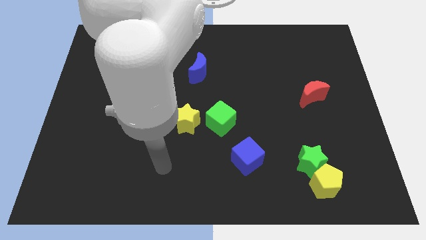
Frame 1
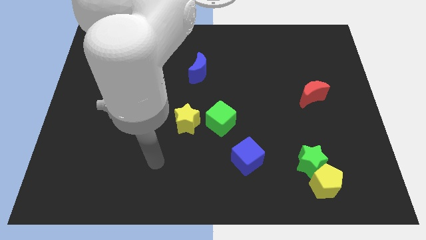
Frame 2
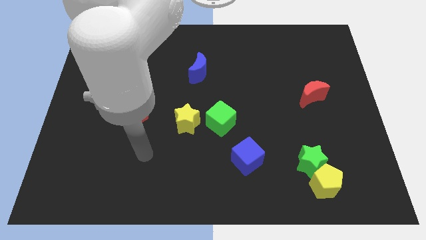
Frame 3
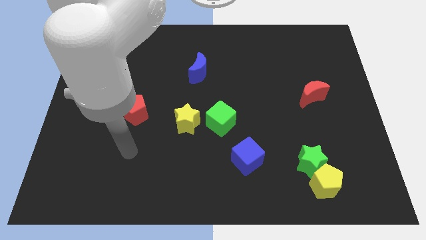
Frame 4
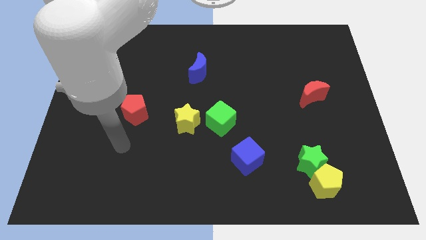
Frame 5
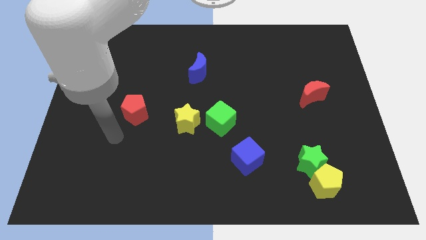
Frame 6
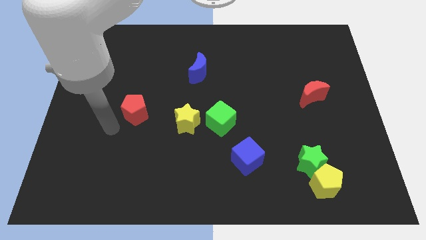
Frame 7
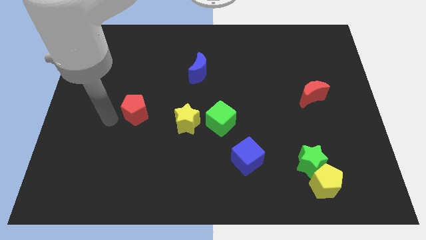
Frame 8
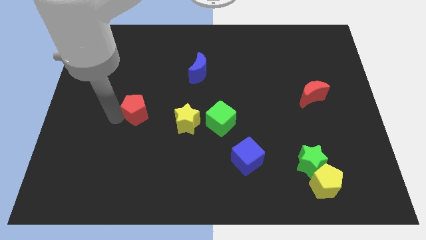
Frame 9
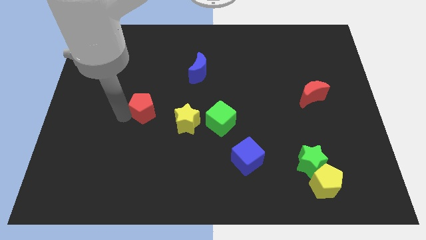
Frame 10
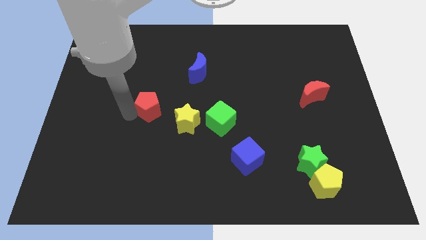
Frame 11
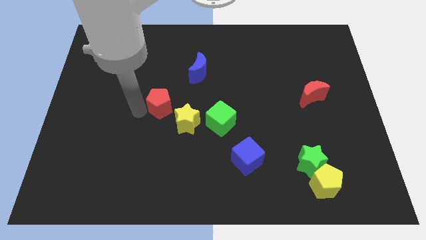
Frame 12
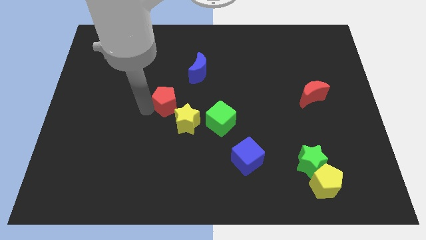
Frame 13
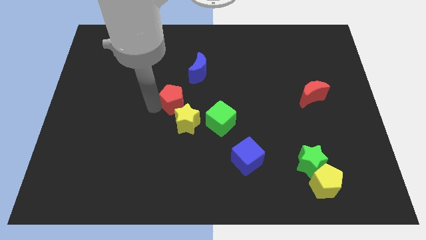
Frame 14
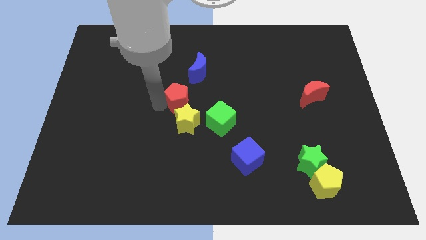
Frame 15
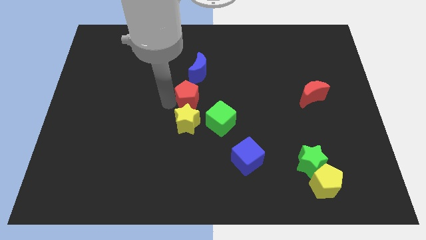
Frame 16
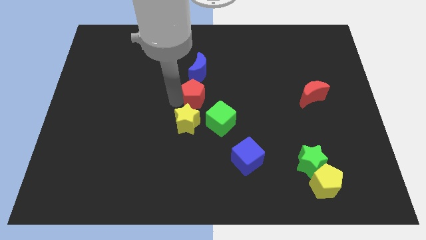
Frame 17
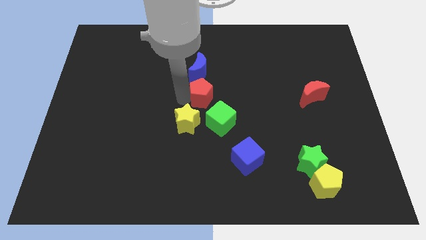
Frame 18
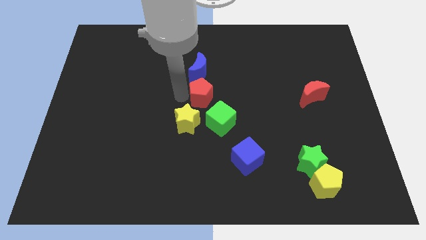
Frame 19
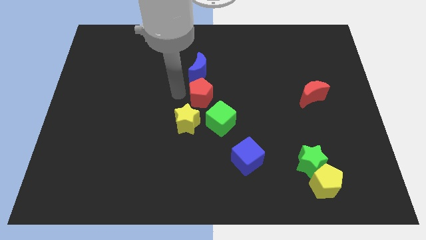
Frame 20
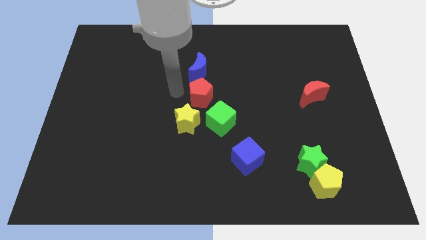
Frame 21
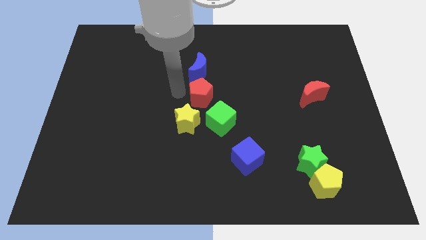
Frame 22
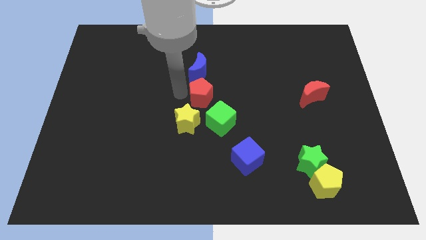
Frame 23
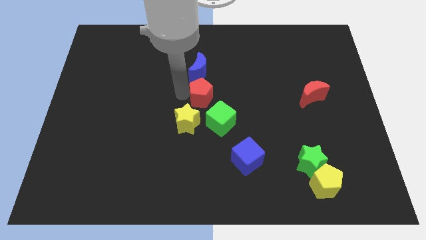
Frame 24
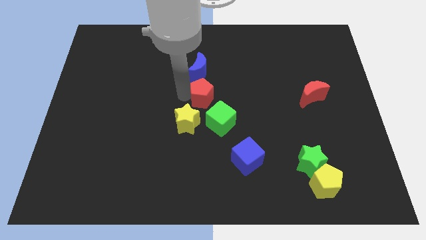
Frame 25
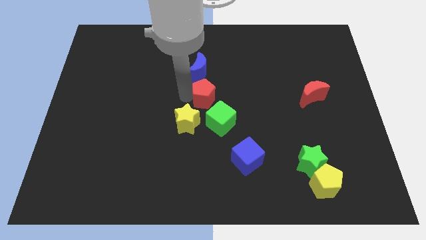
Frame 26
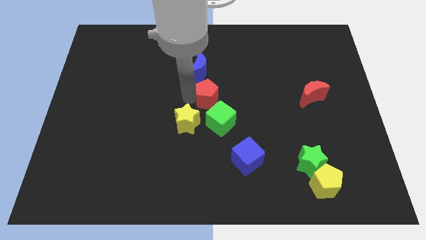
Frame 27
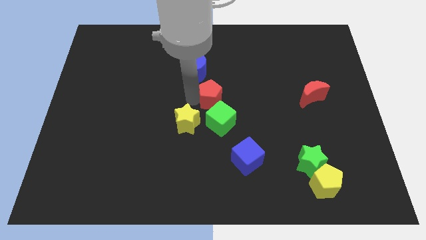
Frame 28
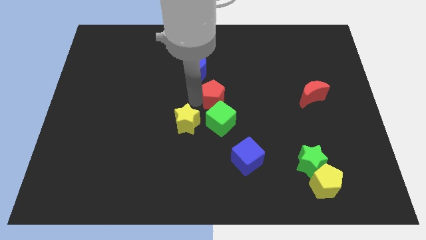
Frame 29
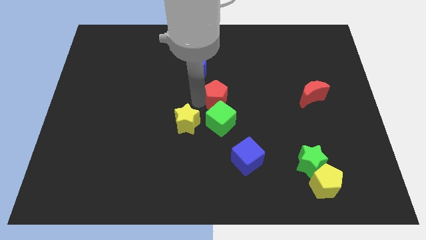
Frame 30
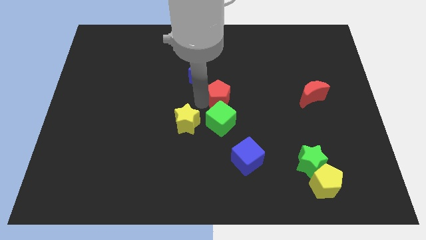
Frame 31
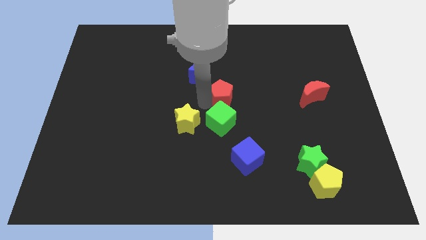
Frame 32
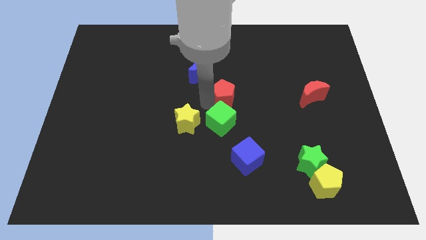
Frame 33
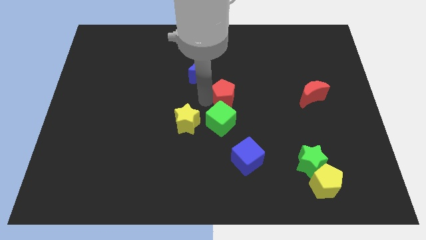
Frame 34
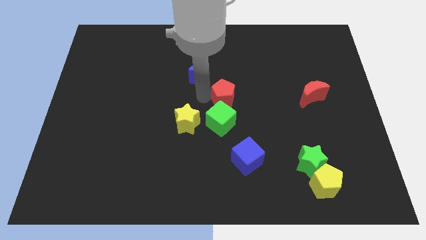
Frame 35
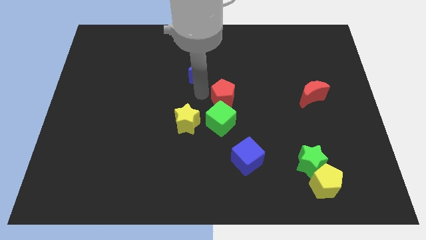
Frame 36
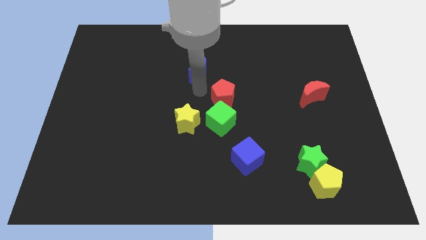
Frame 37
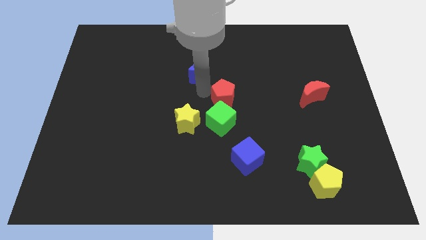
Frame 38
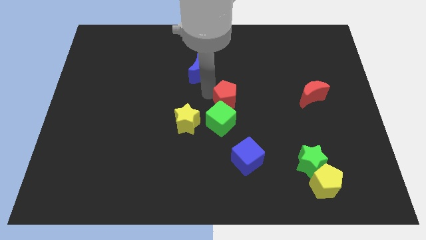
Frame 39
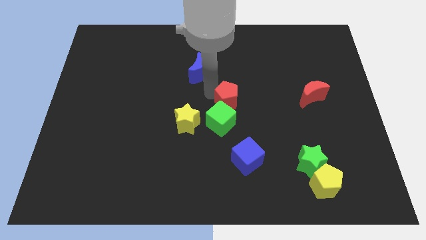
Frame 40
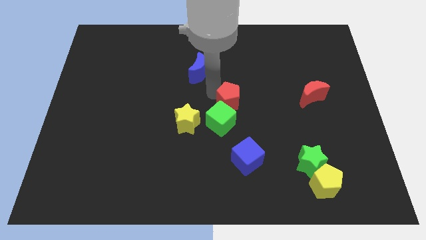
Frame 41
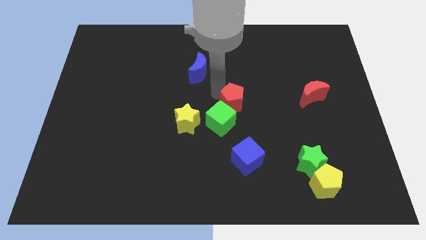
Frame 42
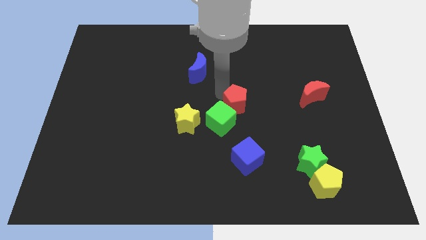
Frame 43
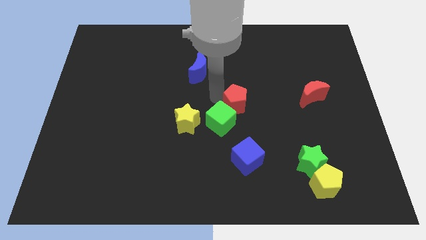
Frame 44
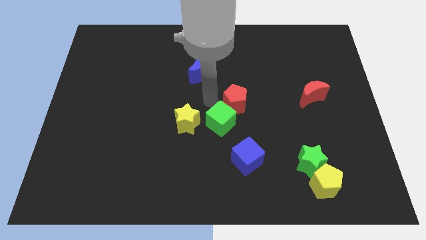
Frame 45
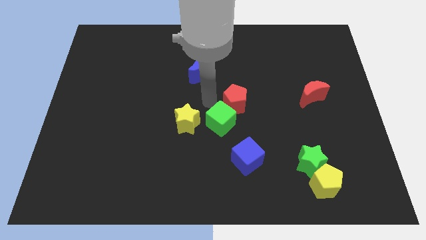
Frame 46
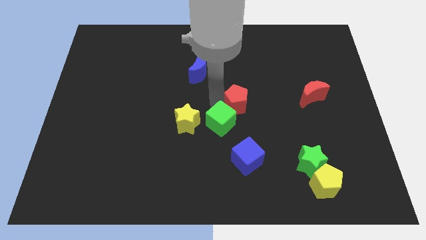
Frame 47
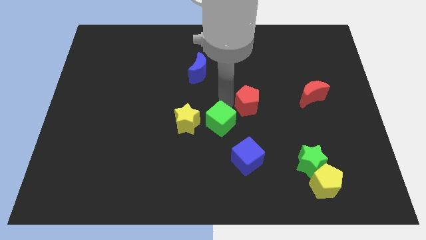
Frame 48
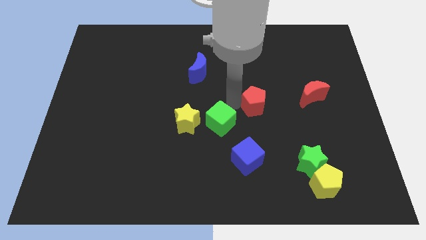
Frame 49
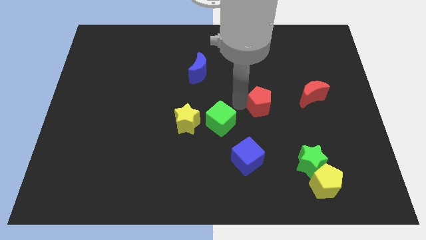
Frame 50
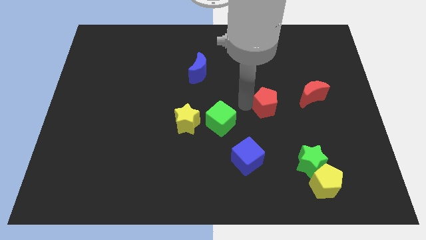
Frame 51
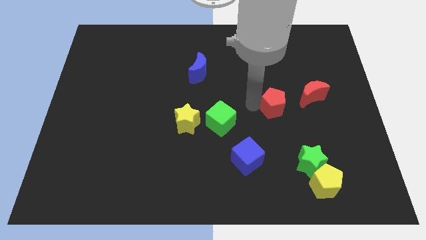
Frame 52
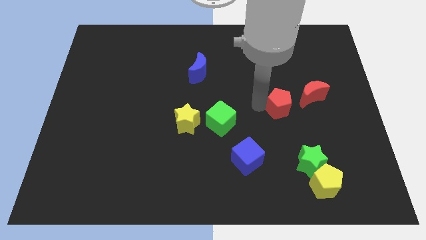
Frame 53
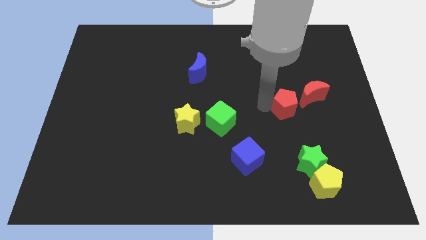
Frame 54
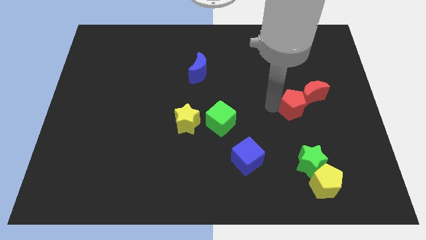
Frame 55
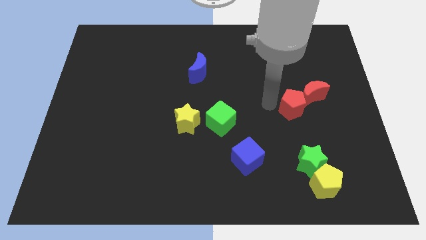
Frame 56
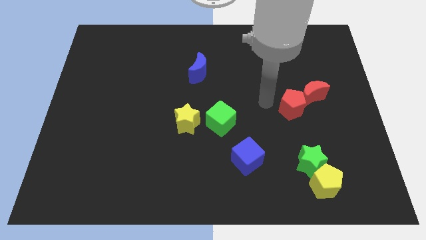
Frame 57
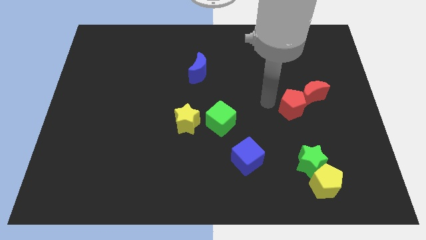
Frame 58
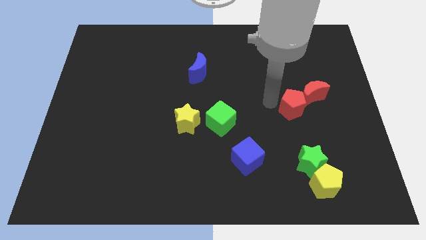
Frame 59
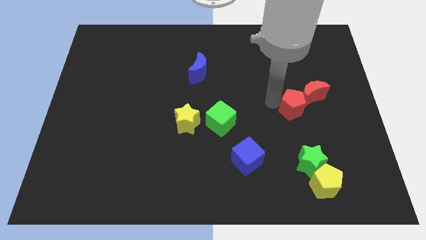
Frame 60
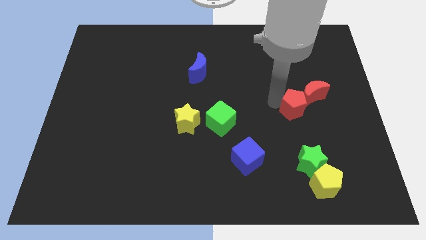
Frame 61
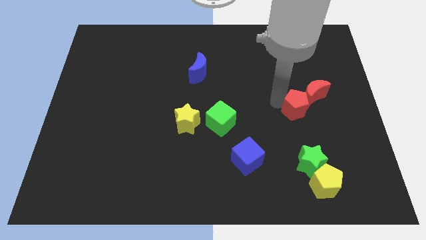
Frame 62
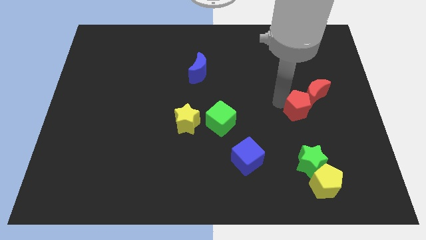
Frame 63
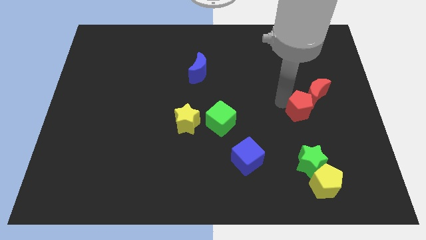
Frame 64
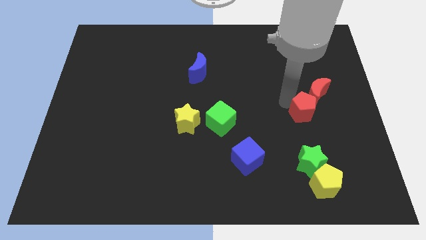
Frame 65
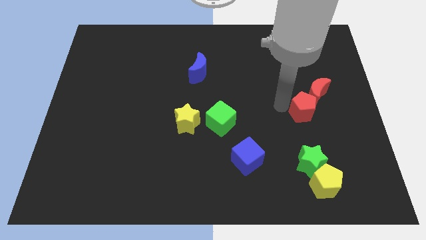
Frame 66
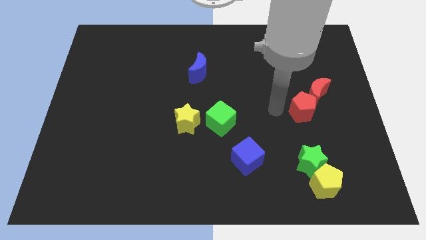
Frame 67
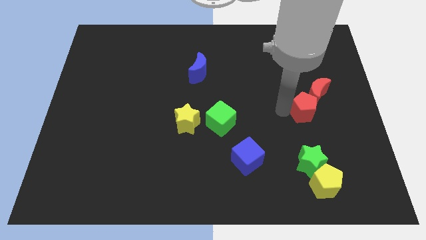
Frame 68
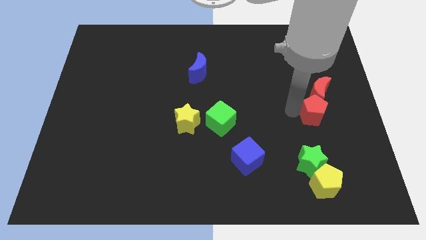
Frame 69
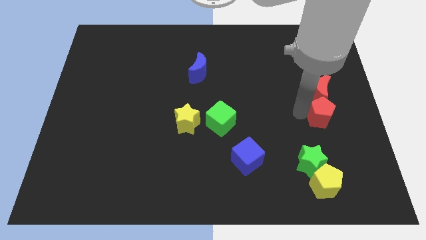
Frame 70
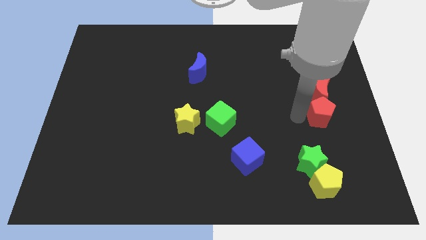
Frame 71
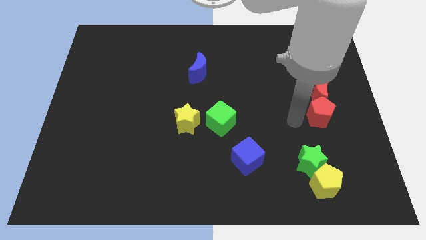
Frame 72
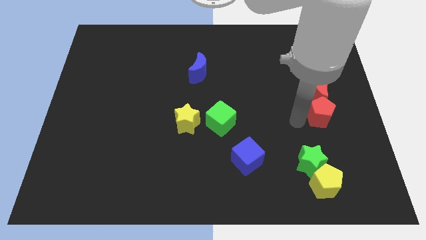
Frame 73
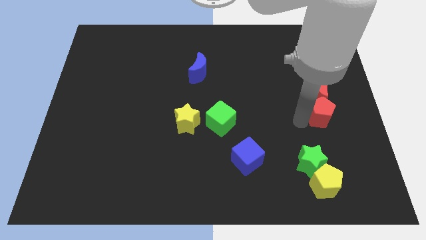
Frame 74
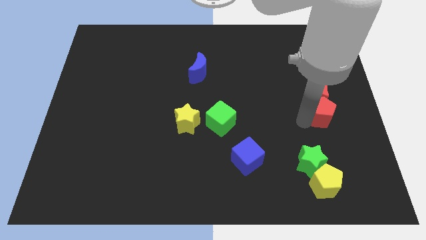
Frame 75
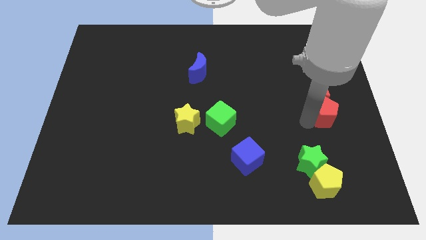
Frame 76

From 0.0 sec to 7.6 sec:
move the red pentagon to the bottom right of the red moon
